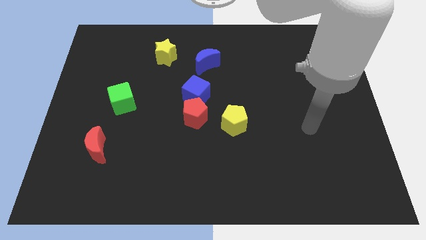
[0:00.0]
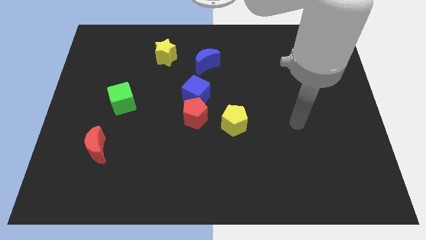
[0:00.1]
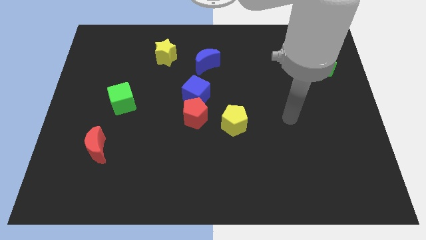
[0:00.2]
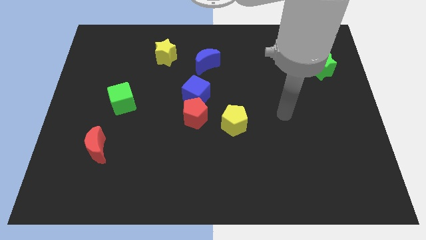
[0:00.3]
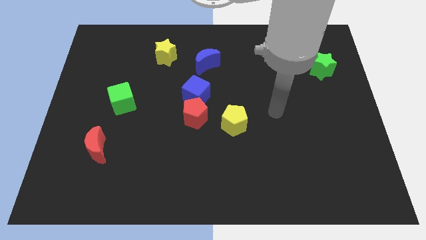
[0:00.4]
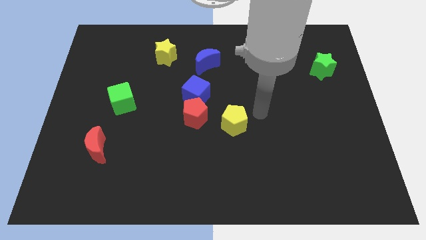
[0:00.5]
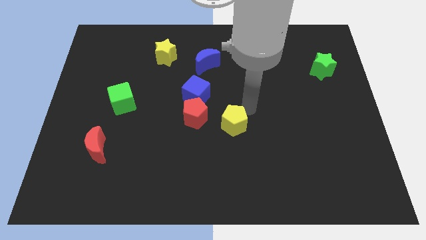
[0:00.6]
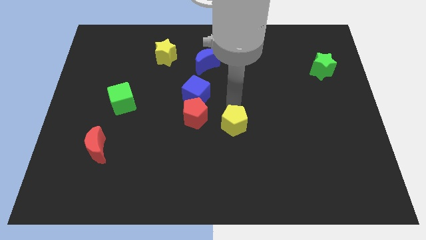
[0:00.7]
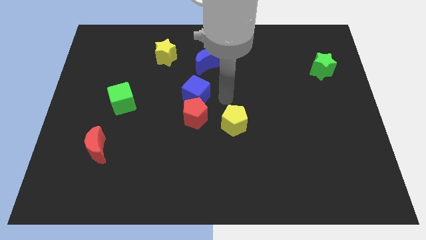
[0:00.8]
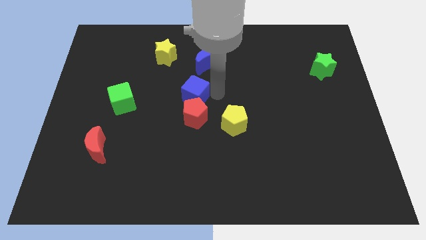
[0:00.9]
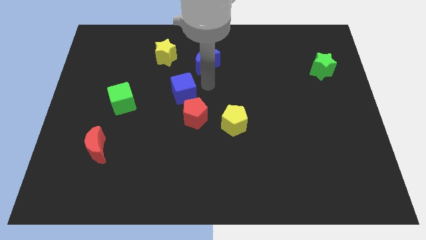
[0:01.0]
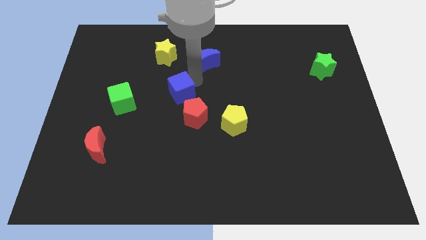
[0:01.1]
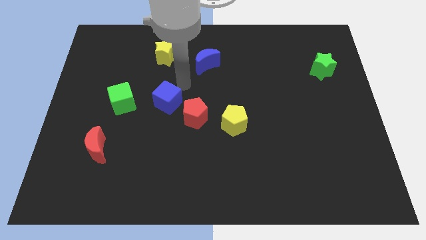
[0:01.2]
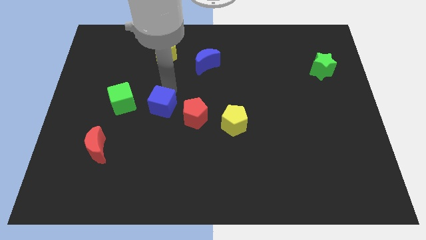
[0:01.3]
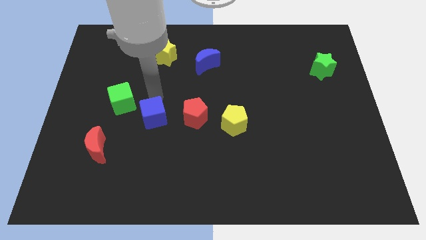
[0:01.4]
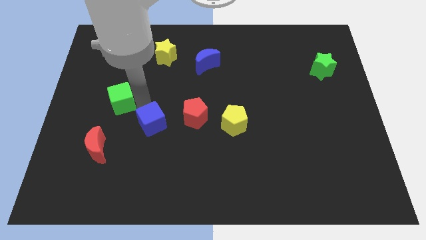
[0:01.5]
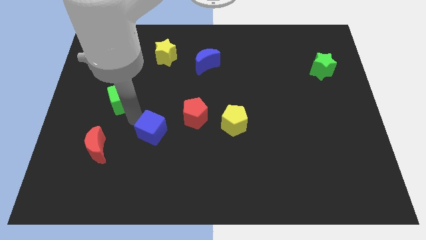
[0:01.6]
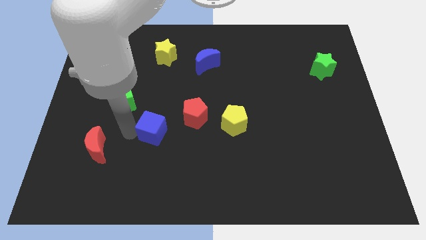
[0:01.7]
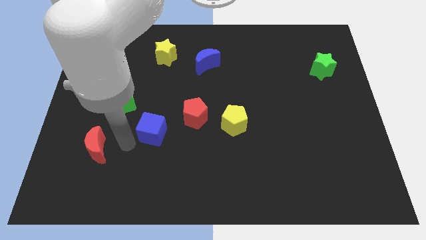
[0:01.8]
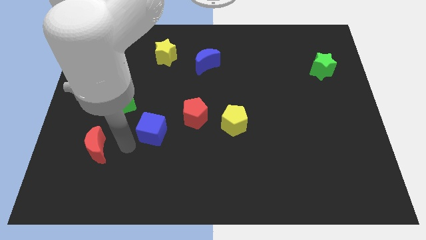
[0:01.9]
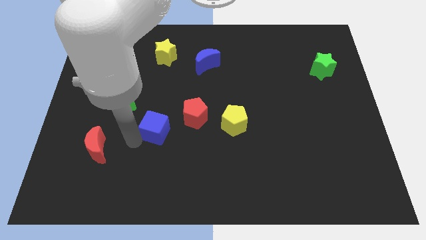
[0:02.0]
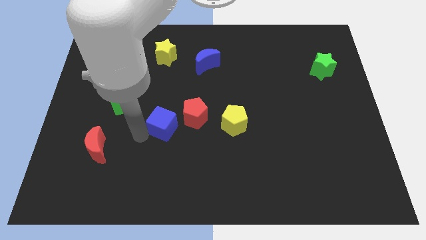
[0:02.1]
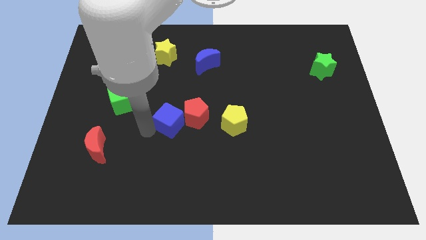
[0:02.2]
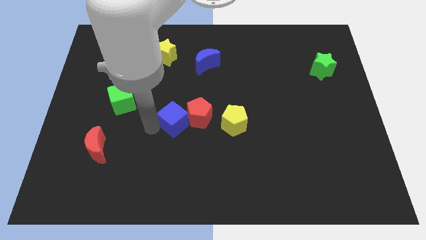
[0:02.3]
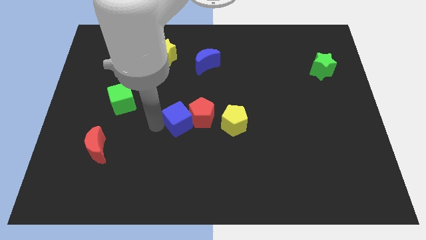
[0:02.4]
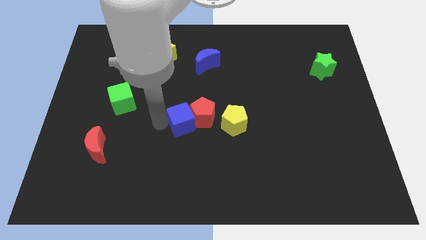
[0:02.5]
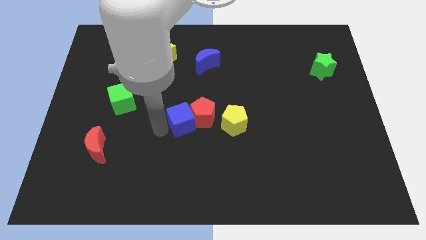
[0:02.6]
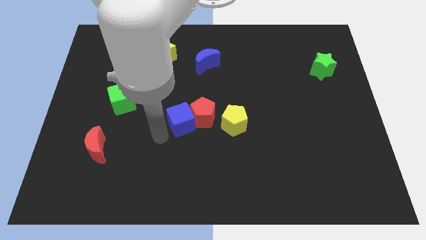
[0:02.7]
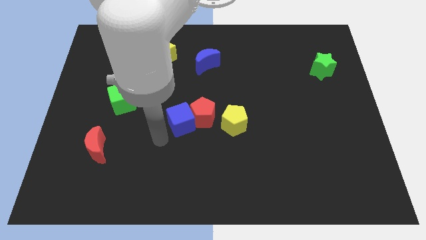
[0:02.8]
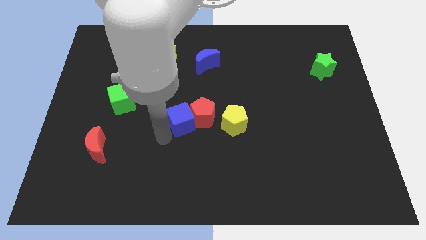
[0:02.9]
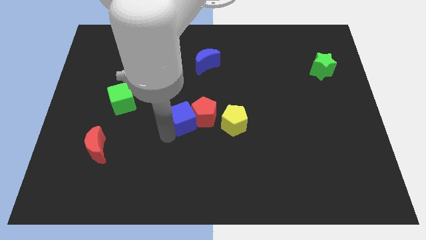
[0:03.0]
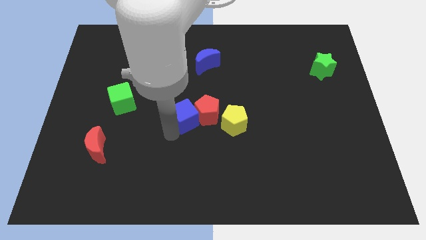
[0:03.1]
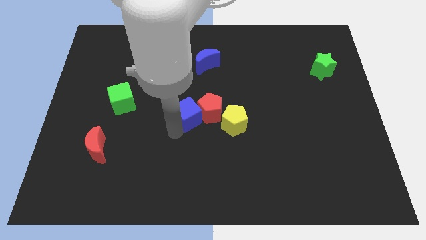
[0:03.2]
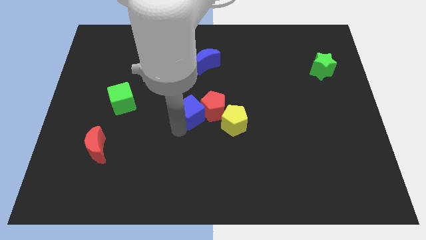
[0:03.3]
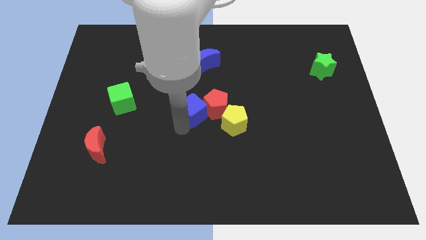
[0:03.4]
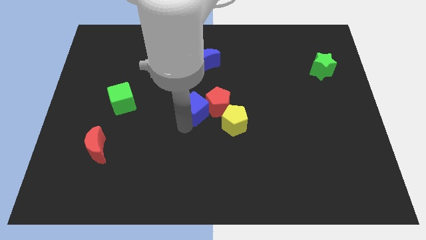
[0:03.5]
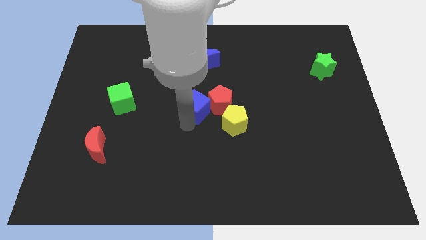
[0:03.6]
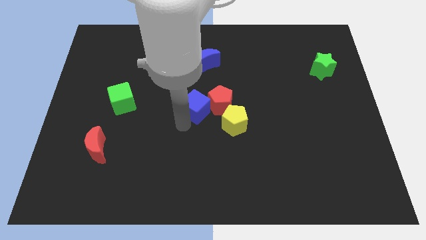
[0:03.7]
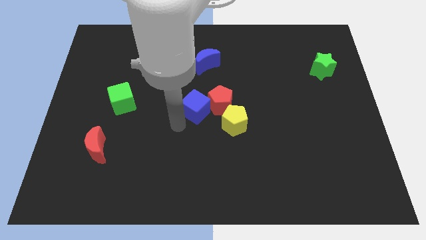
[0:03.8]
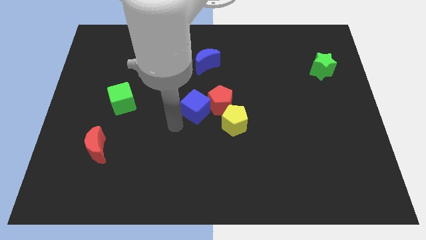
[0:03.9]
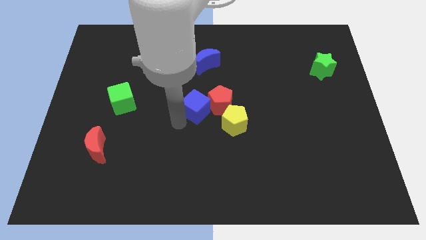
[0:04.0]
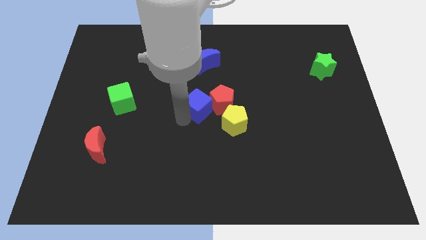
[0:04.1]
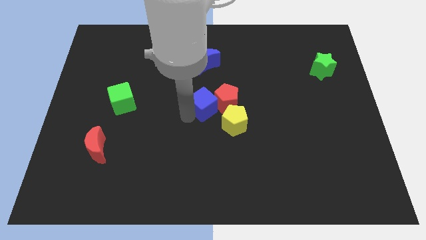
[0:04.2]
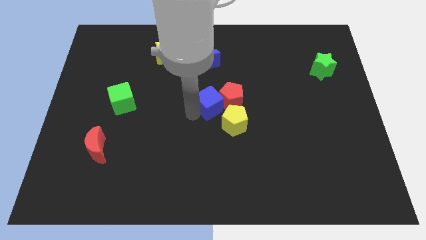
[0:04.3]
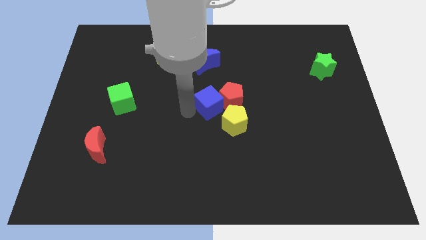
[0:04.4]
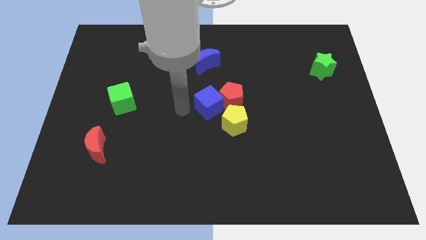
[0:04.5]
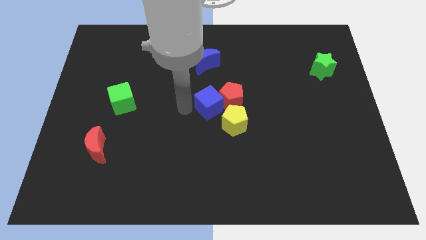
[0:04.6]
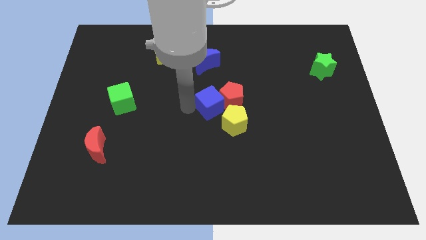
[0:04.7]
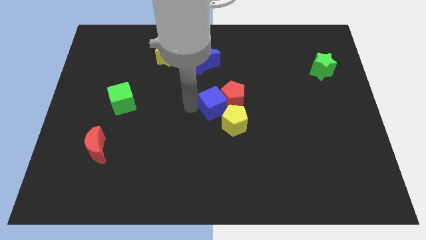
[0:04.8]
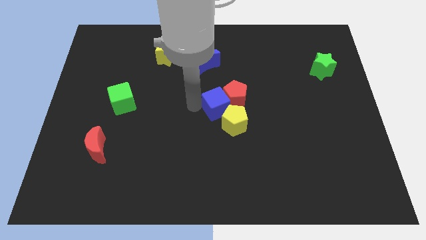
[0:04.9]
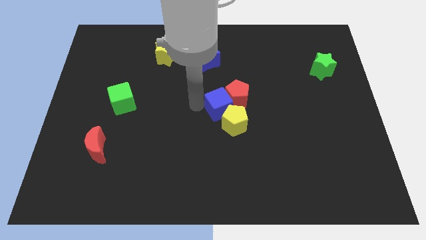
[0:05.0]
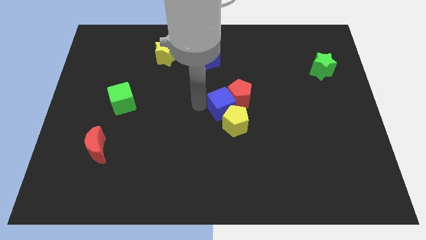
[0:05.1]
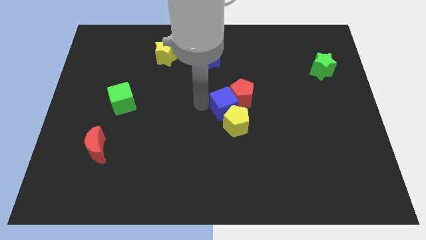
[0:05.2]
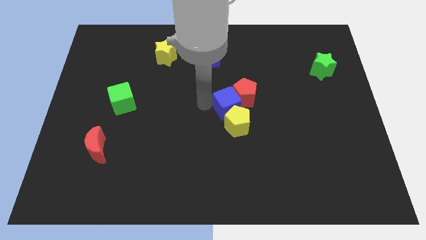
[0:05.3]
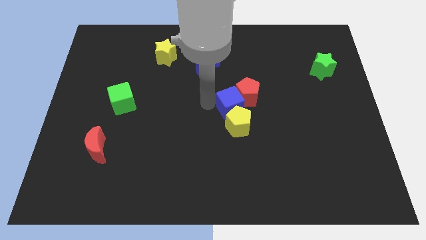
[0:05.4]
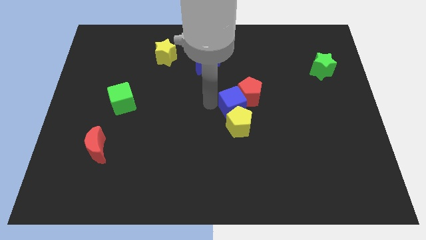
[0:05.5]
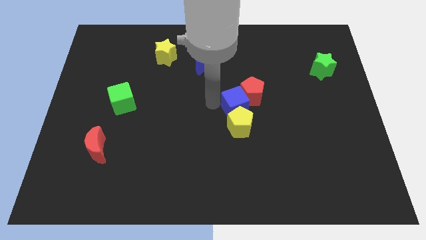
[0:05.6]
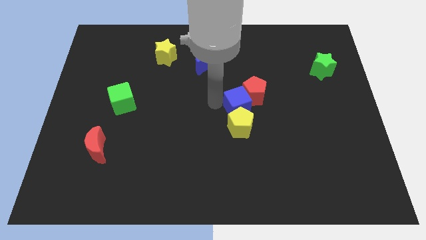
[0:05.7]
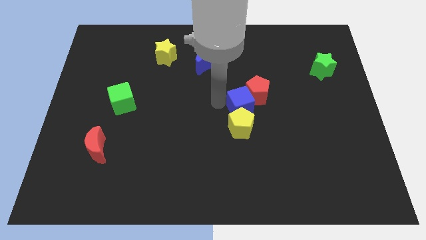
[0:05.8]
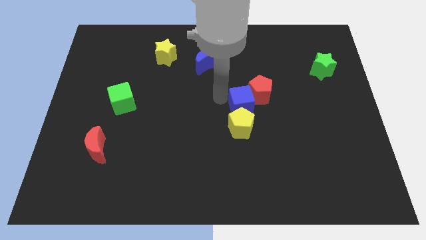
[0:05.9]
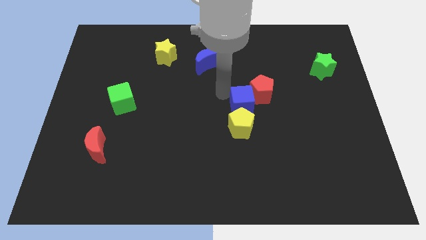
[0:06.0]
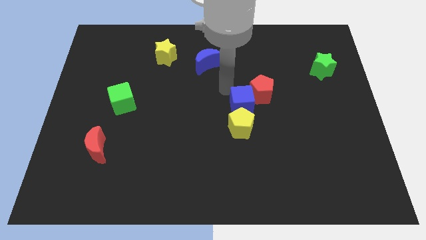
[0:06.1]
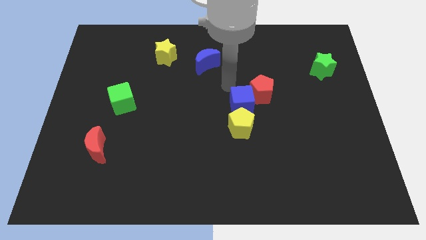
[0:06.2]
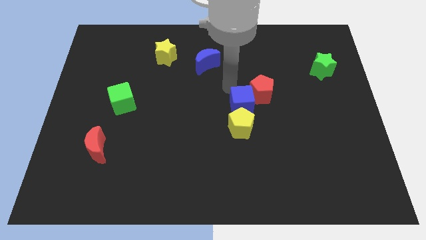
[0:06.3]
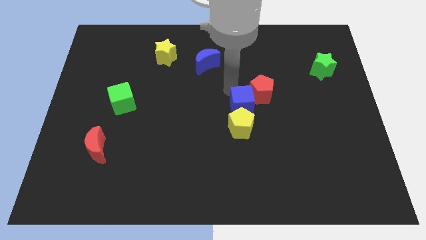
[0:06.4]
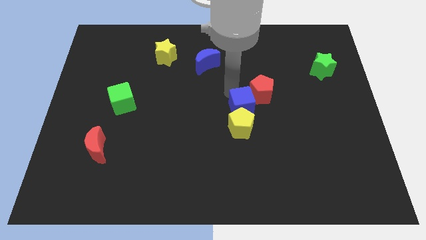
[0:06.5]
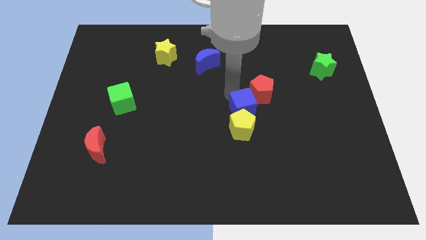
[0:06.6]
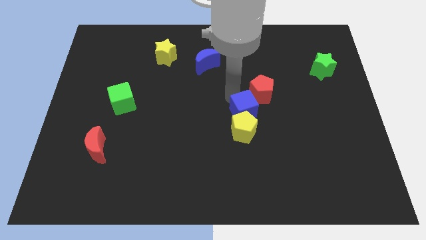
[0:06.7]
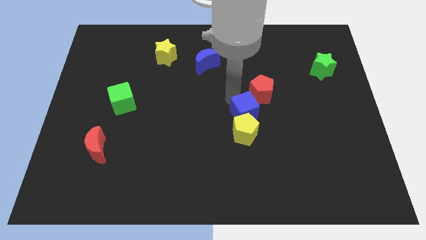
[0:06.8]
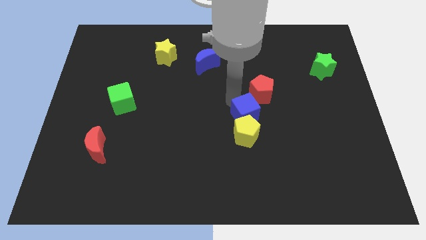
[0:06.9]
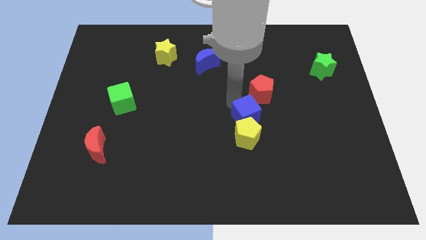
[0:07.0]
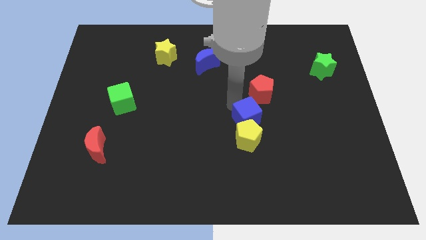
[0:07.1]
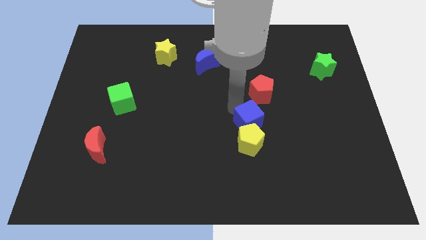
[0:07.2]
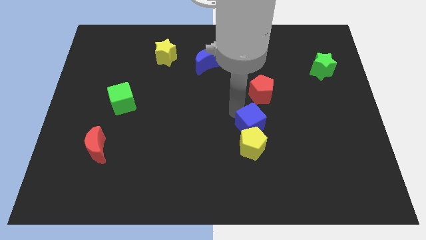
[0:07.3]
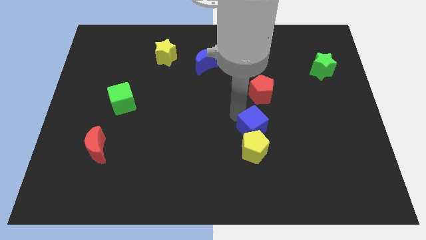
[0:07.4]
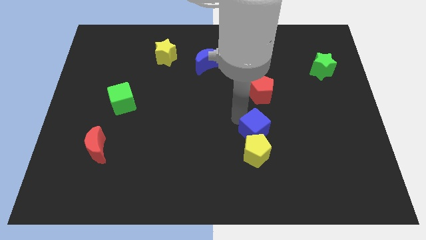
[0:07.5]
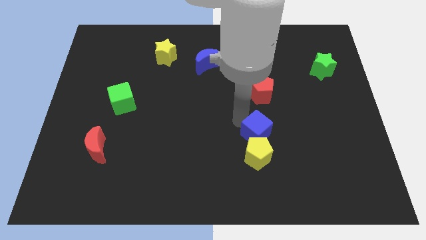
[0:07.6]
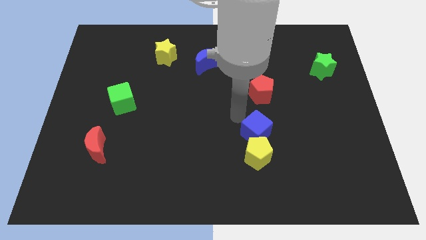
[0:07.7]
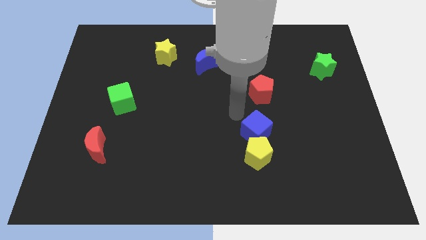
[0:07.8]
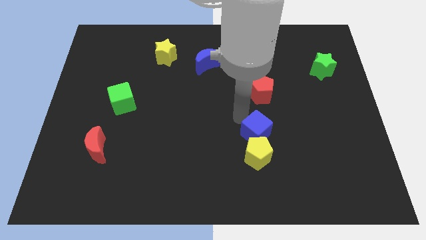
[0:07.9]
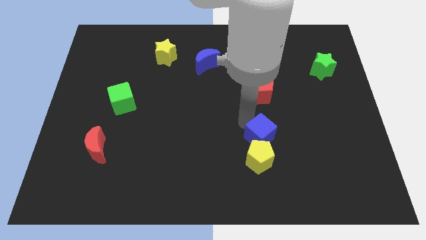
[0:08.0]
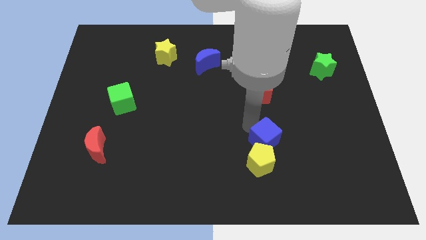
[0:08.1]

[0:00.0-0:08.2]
push the blue cube diagonally down and to the right
